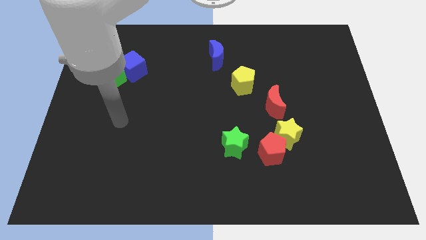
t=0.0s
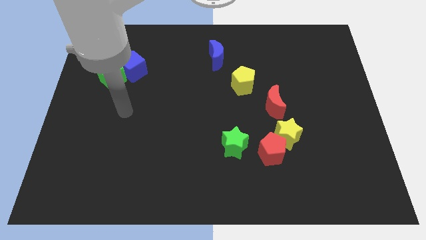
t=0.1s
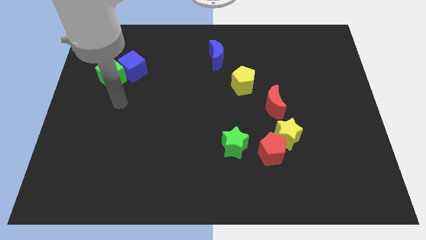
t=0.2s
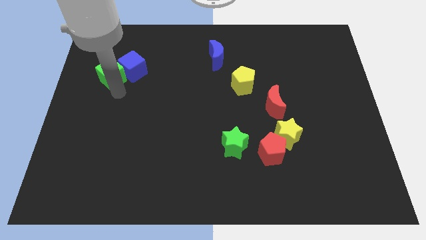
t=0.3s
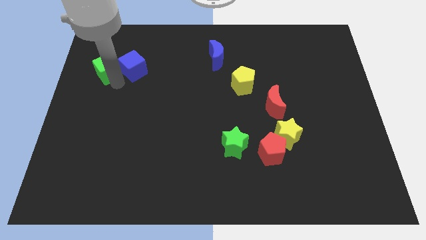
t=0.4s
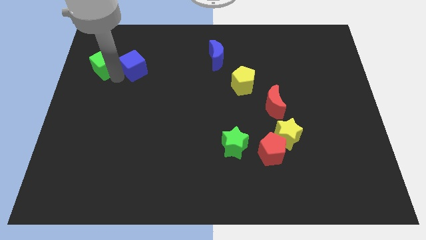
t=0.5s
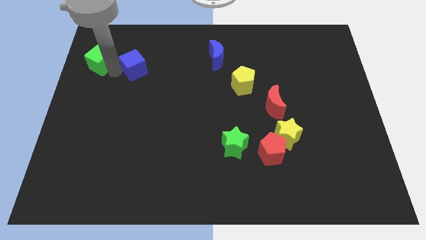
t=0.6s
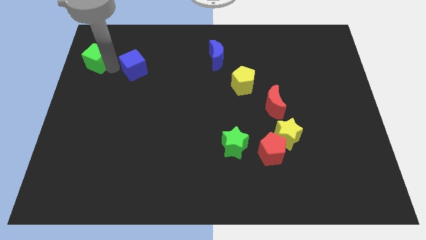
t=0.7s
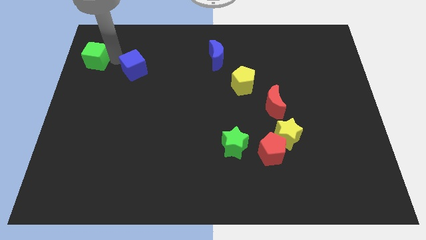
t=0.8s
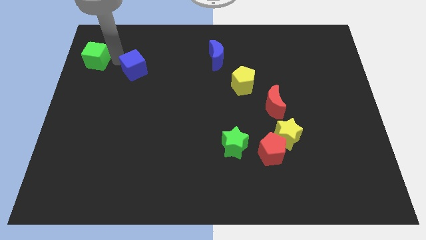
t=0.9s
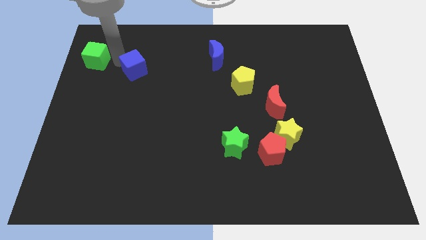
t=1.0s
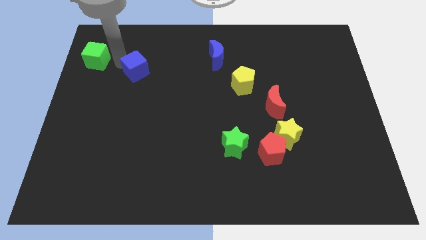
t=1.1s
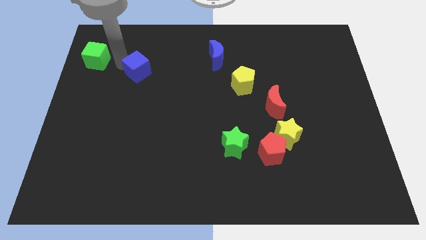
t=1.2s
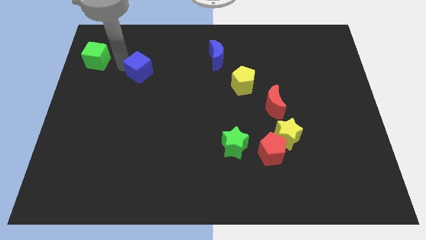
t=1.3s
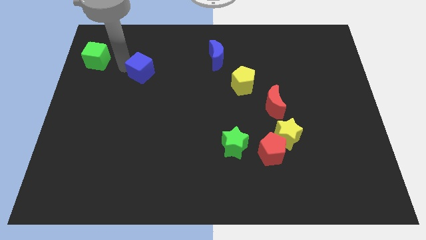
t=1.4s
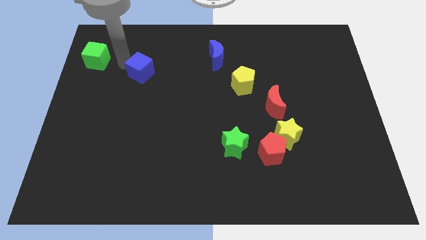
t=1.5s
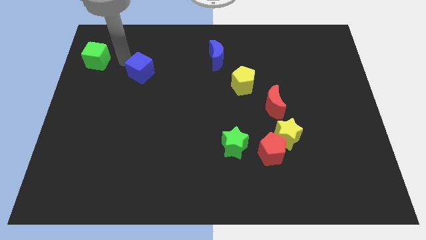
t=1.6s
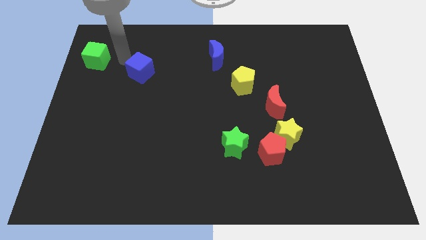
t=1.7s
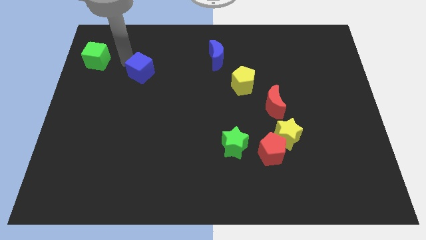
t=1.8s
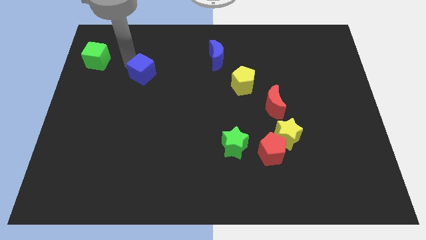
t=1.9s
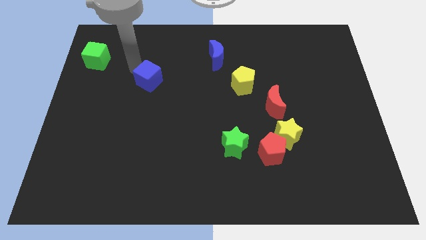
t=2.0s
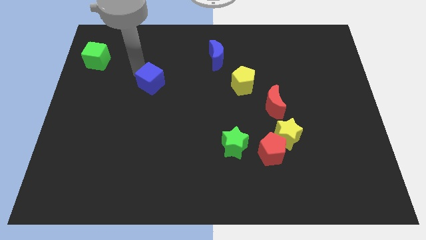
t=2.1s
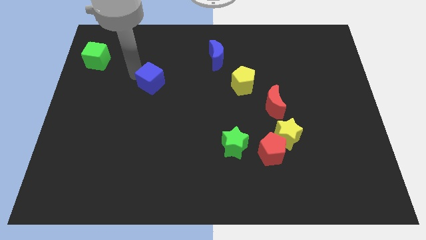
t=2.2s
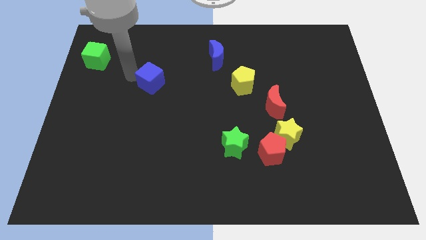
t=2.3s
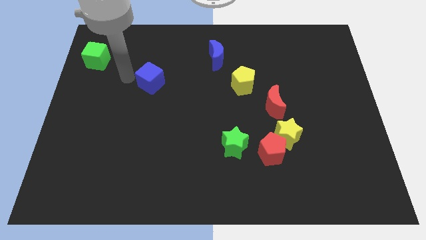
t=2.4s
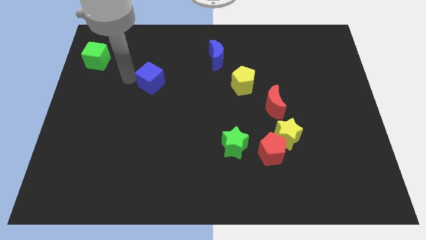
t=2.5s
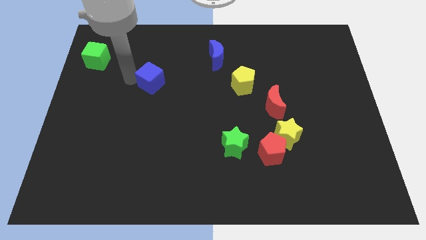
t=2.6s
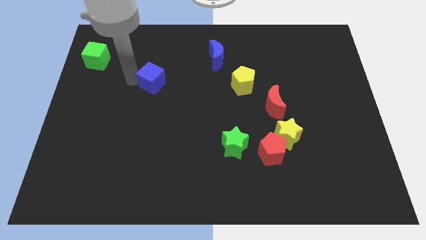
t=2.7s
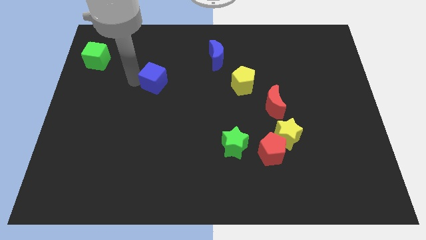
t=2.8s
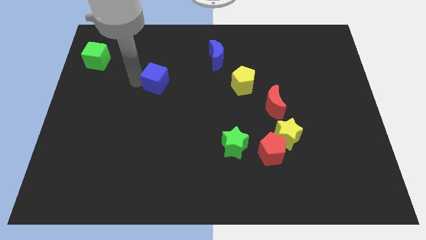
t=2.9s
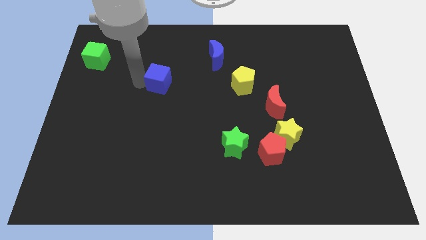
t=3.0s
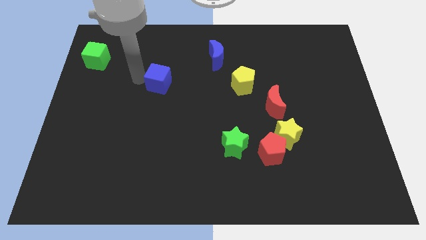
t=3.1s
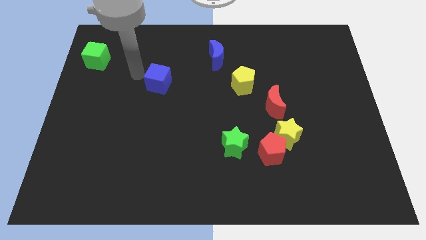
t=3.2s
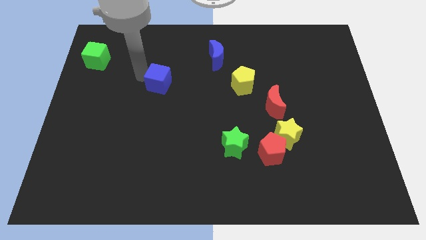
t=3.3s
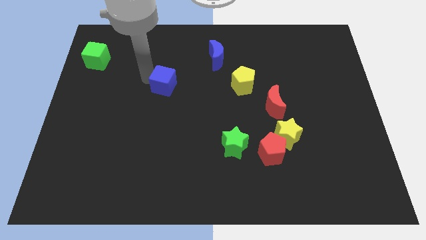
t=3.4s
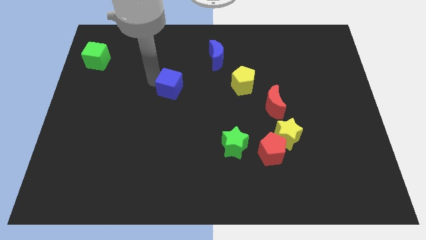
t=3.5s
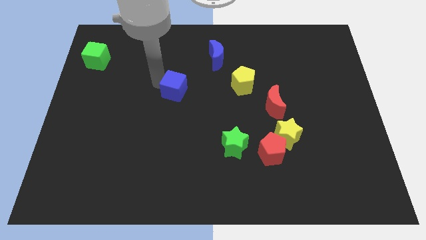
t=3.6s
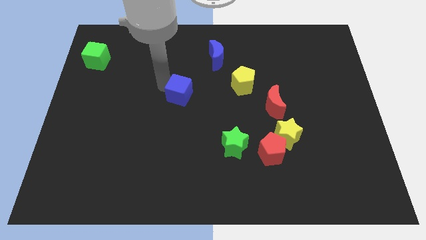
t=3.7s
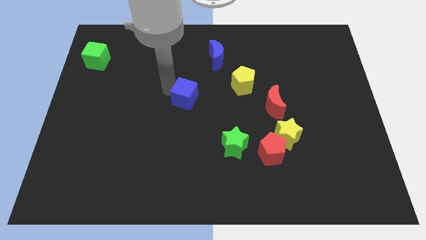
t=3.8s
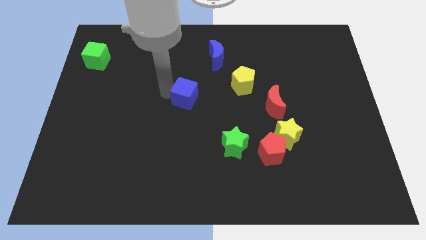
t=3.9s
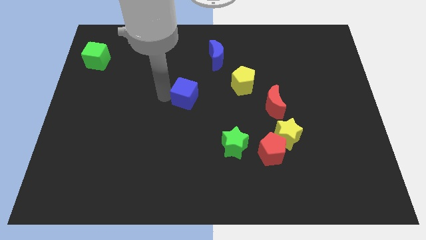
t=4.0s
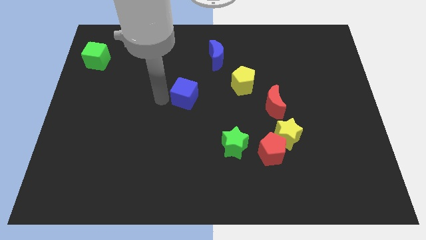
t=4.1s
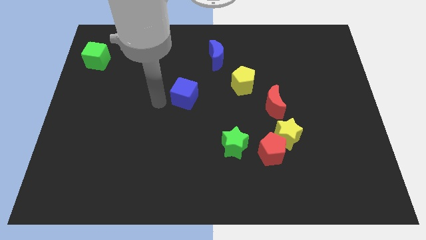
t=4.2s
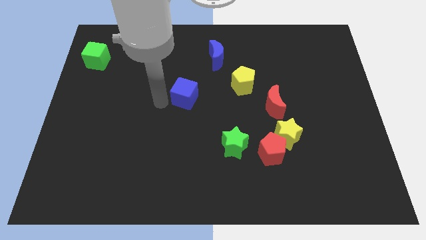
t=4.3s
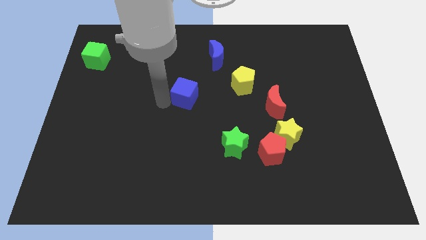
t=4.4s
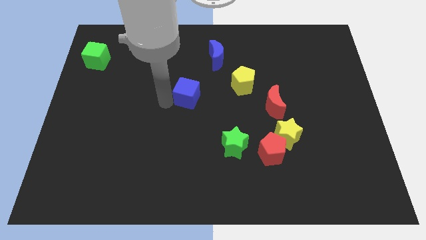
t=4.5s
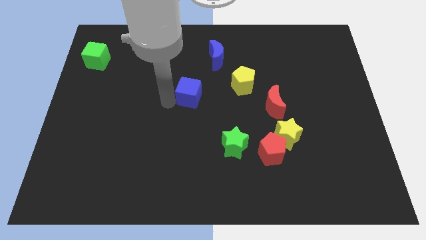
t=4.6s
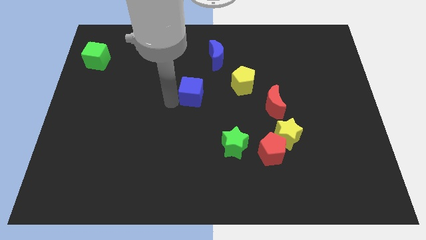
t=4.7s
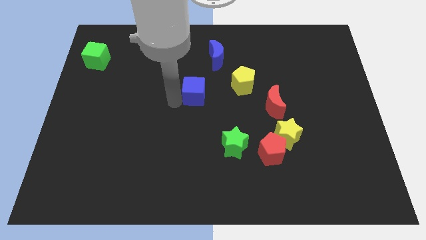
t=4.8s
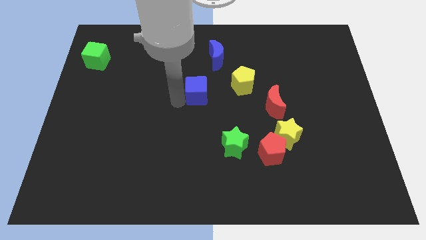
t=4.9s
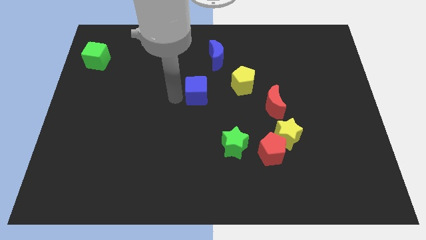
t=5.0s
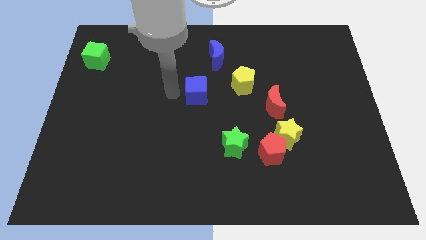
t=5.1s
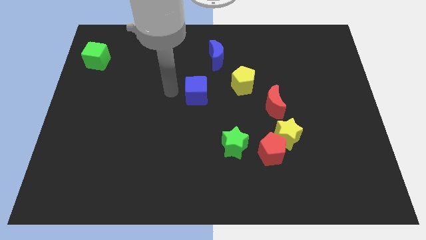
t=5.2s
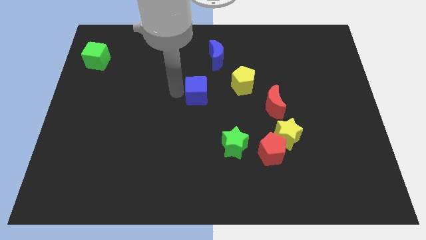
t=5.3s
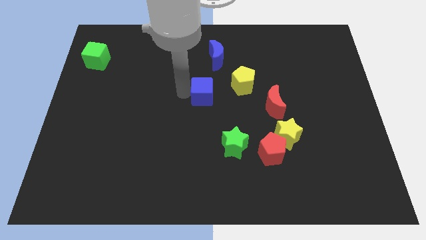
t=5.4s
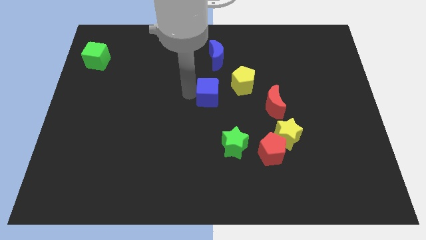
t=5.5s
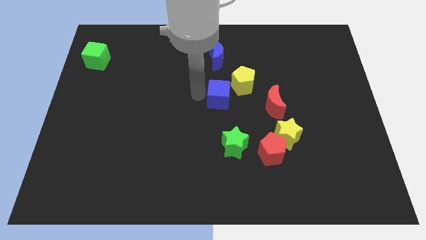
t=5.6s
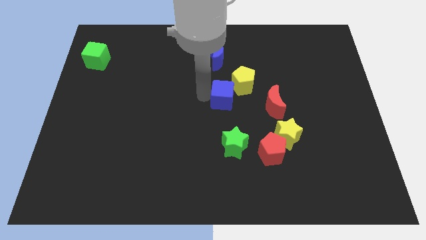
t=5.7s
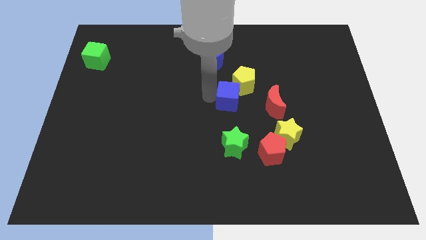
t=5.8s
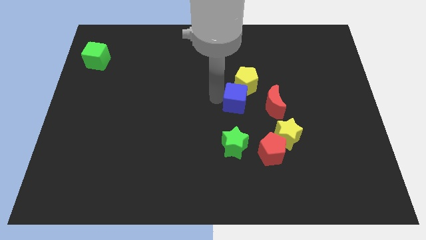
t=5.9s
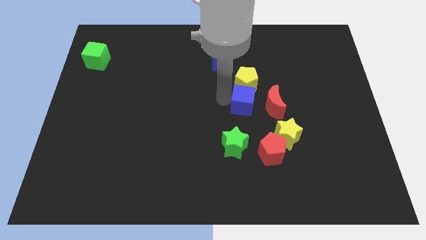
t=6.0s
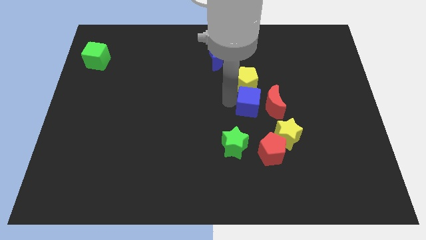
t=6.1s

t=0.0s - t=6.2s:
move the blue cube towards the red moon
